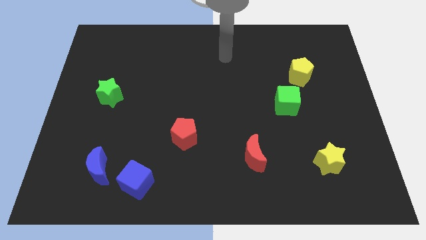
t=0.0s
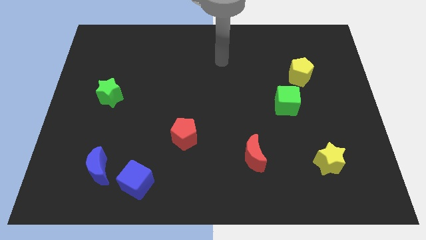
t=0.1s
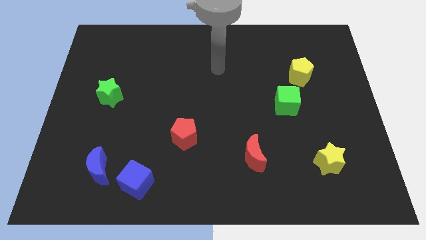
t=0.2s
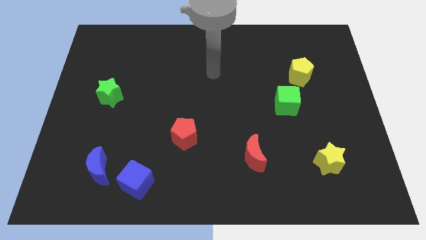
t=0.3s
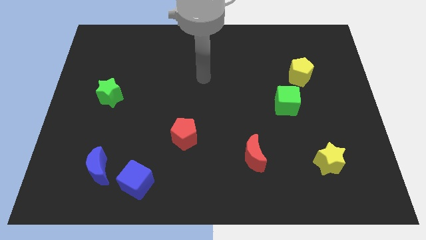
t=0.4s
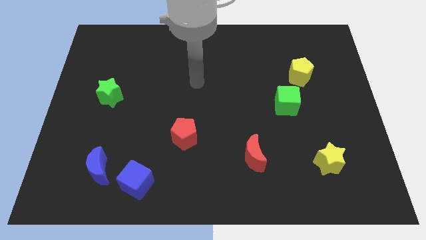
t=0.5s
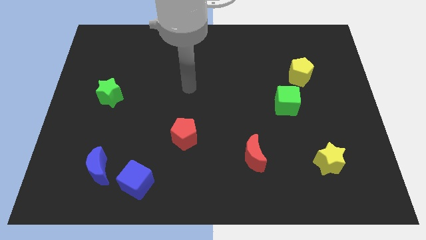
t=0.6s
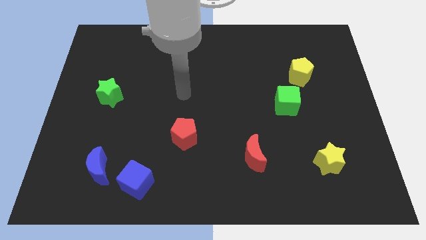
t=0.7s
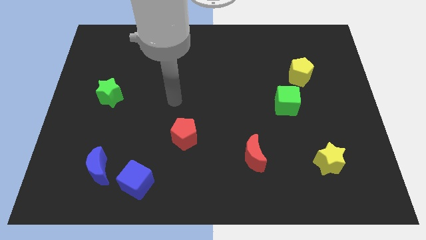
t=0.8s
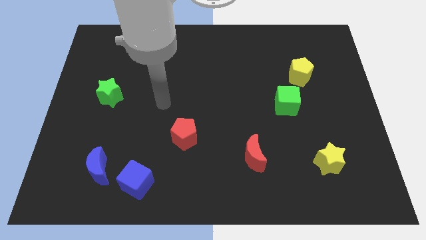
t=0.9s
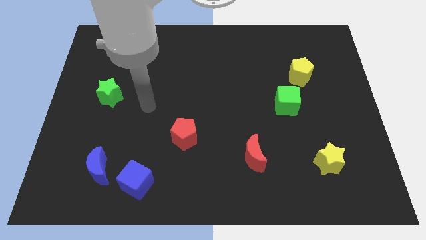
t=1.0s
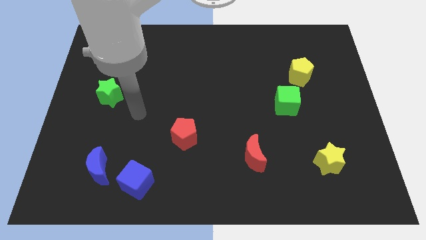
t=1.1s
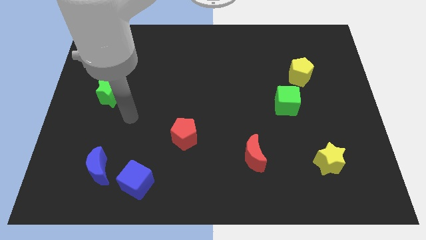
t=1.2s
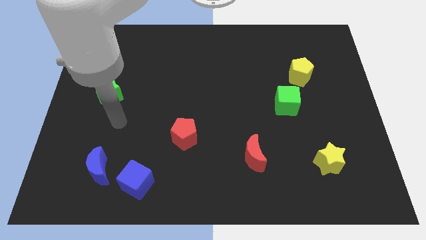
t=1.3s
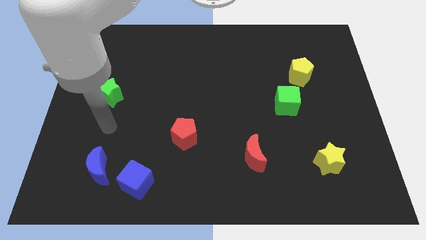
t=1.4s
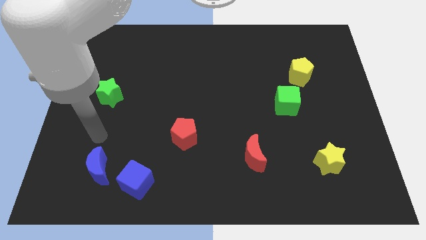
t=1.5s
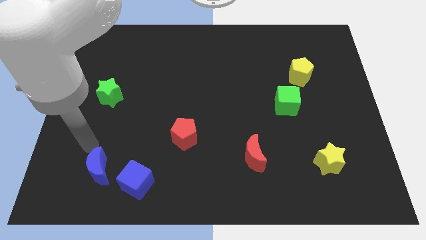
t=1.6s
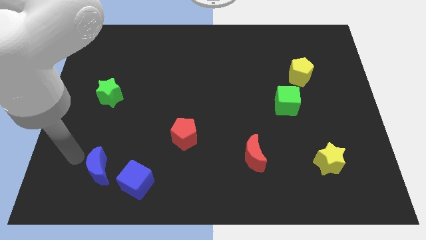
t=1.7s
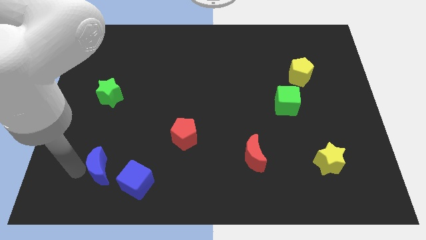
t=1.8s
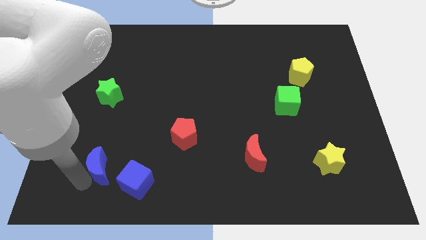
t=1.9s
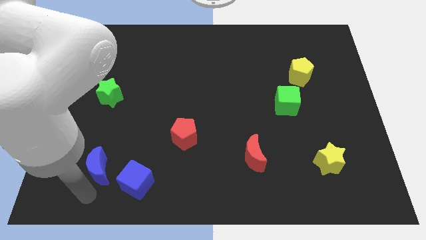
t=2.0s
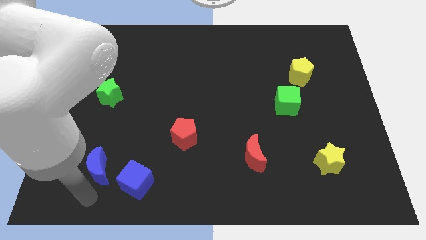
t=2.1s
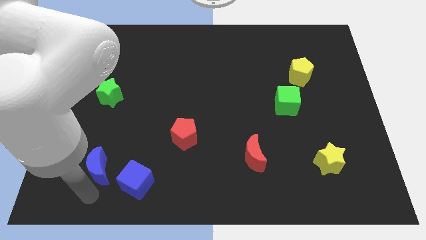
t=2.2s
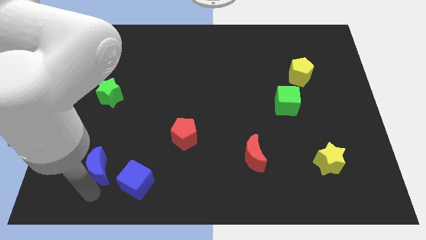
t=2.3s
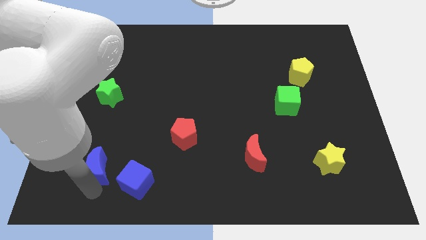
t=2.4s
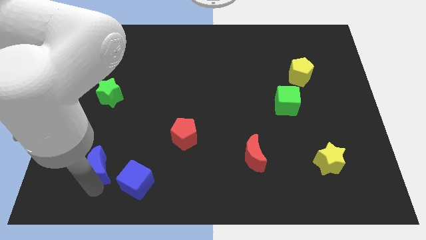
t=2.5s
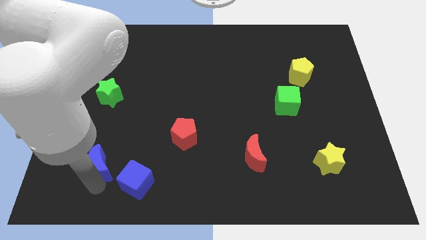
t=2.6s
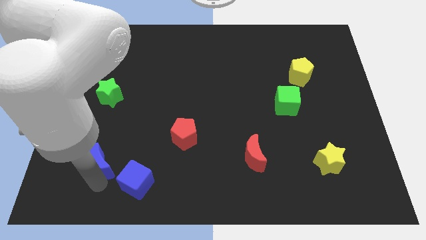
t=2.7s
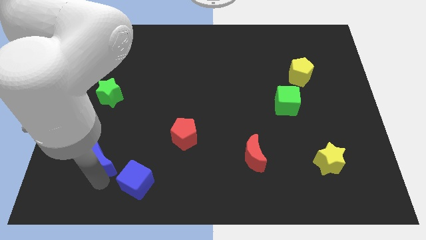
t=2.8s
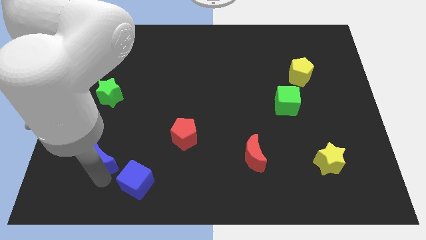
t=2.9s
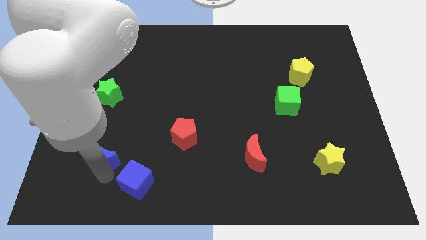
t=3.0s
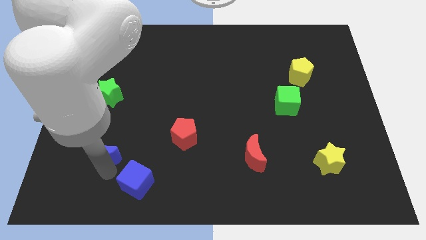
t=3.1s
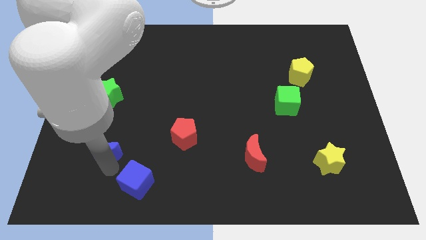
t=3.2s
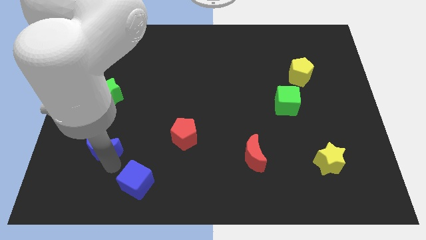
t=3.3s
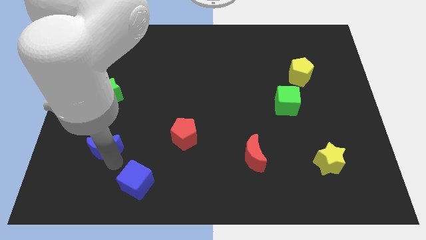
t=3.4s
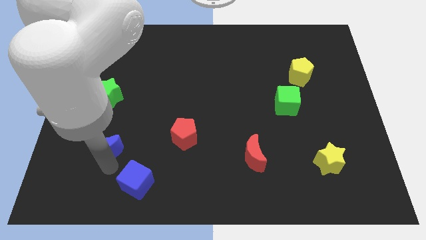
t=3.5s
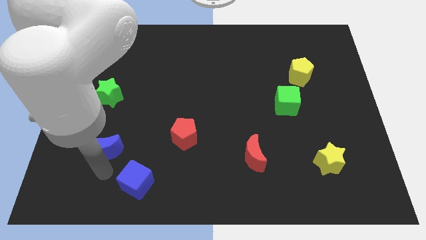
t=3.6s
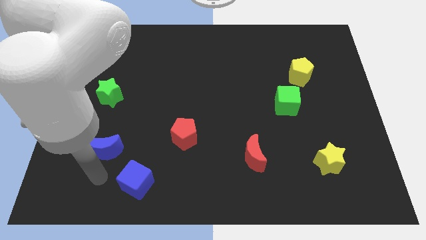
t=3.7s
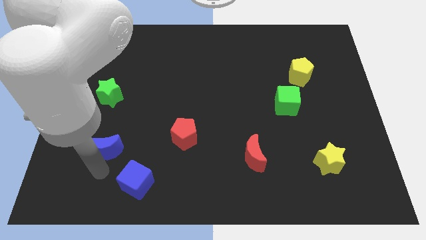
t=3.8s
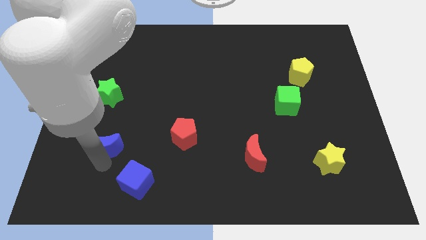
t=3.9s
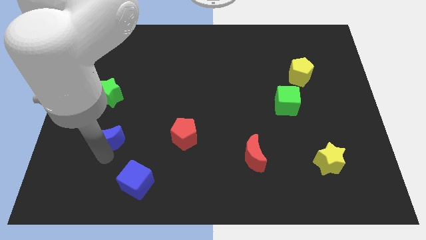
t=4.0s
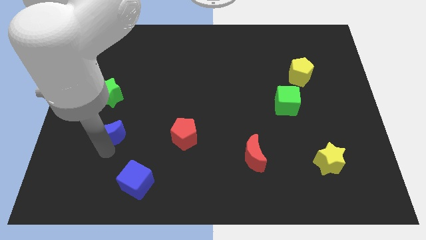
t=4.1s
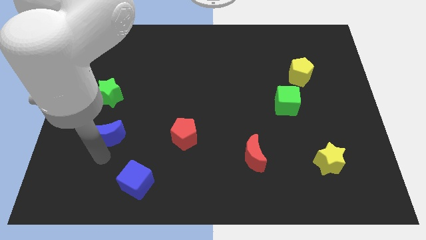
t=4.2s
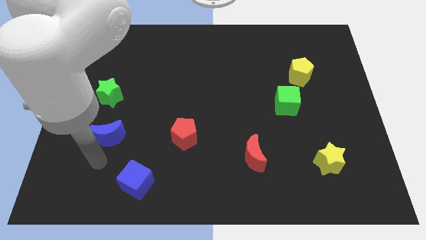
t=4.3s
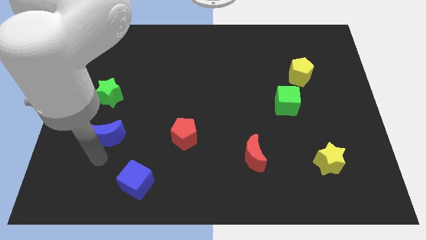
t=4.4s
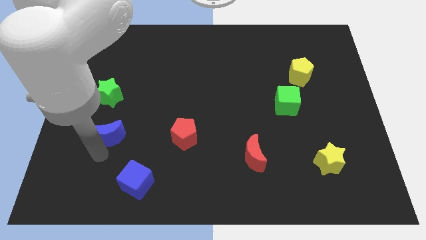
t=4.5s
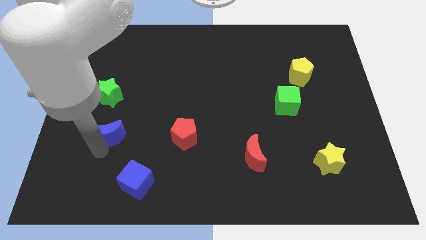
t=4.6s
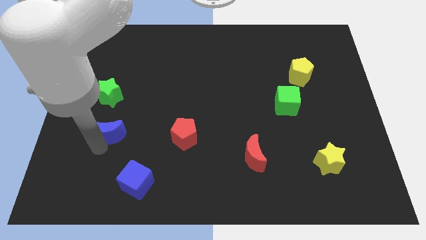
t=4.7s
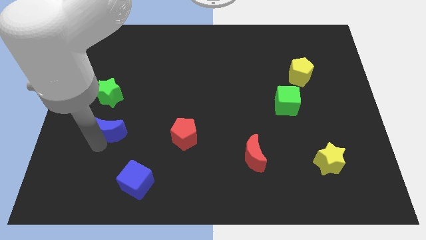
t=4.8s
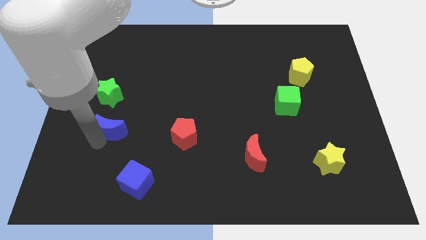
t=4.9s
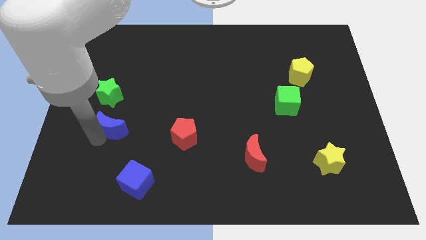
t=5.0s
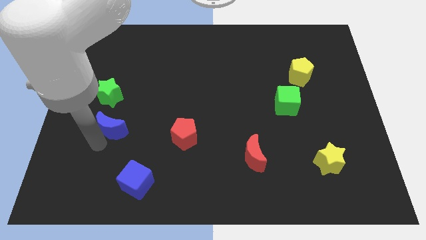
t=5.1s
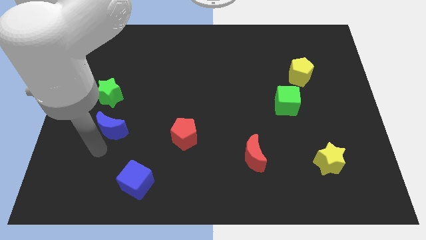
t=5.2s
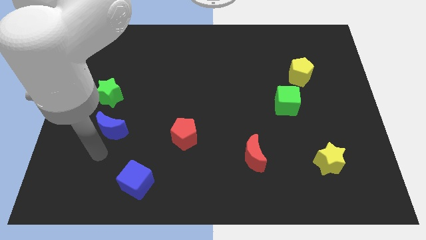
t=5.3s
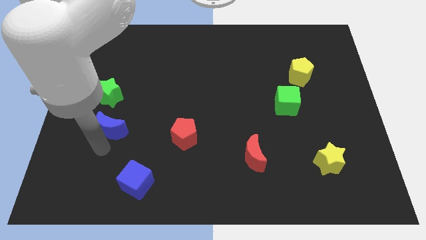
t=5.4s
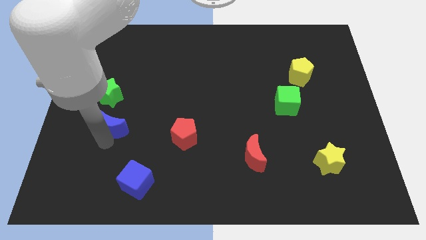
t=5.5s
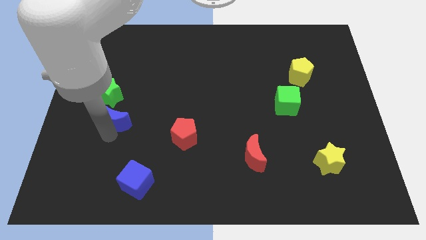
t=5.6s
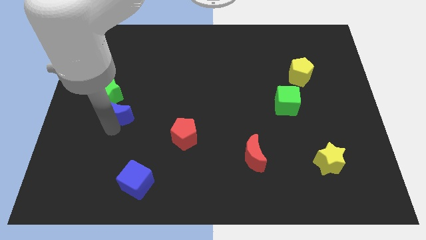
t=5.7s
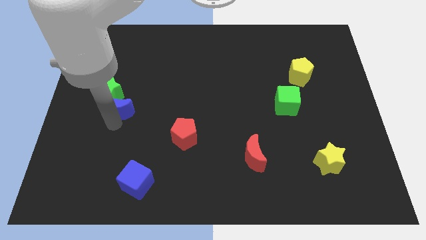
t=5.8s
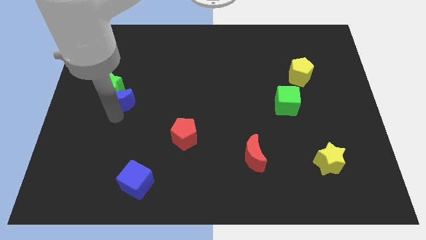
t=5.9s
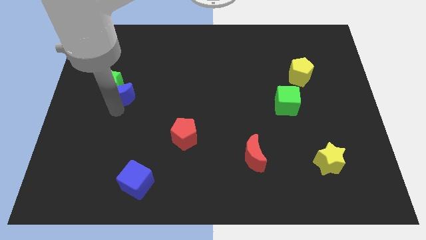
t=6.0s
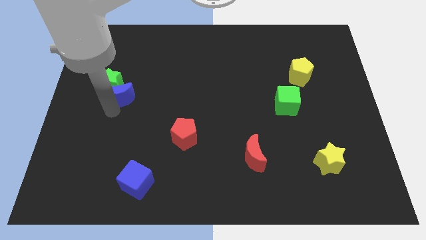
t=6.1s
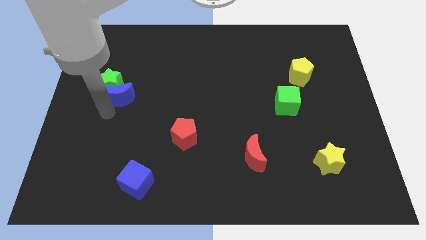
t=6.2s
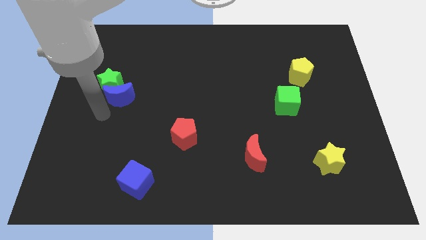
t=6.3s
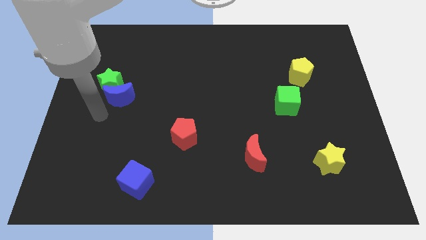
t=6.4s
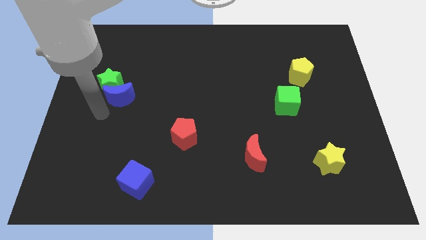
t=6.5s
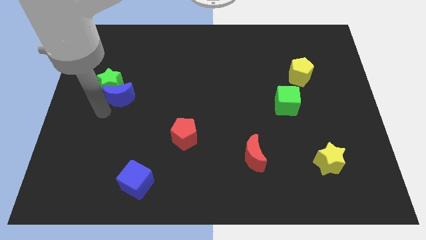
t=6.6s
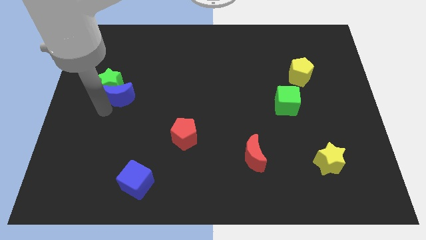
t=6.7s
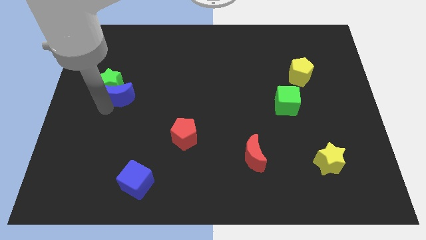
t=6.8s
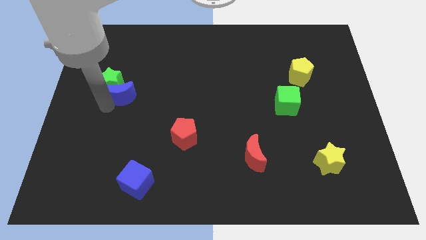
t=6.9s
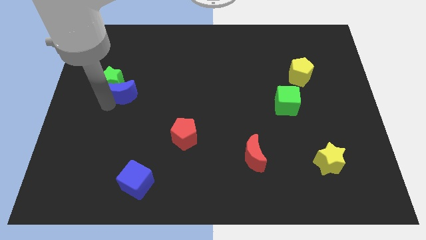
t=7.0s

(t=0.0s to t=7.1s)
move the blue moon upwards

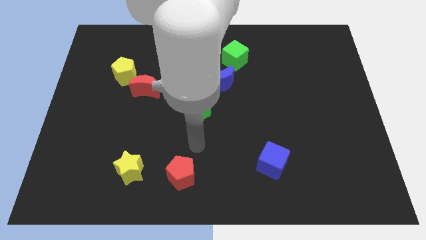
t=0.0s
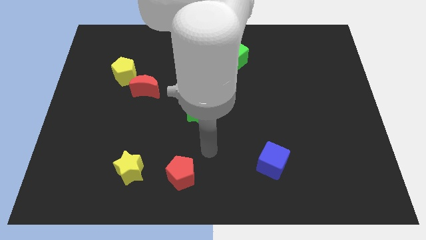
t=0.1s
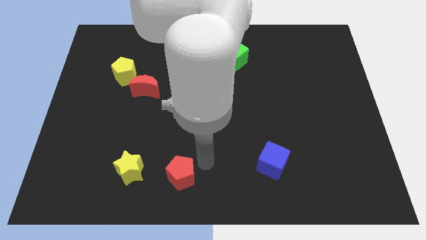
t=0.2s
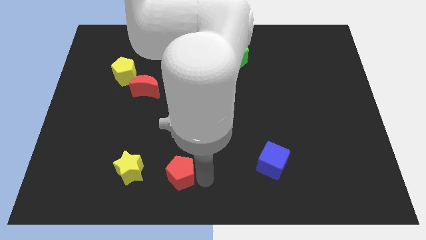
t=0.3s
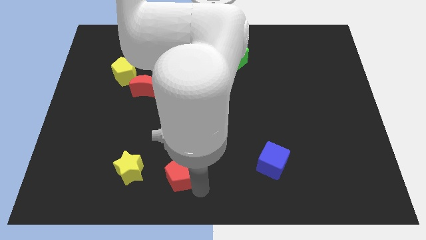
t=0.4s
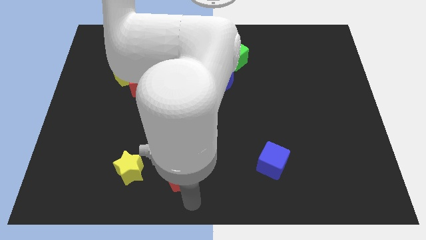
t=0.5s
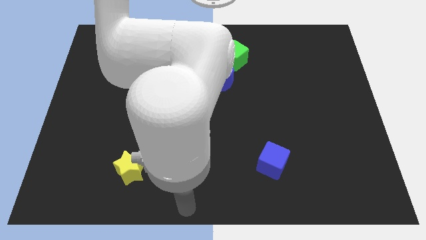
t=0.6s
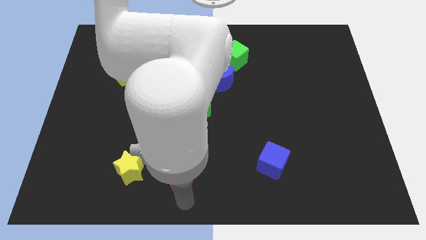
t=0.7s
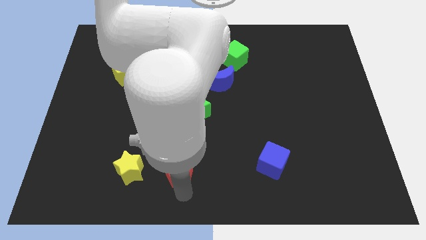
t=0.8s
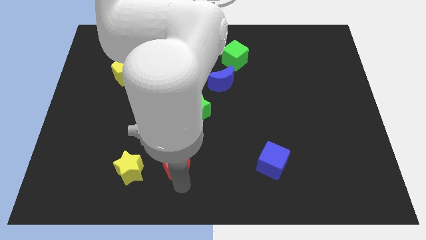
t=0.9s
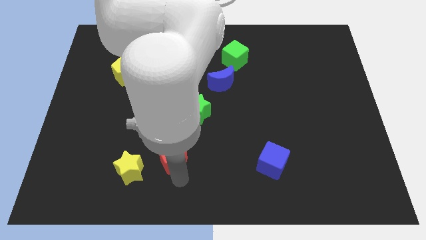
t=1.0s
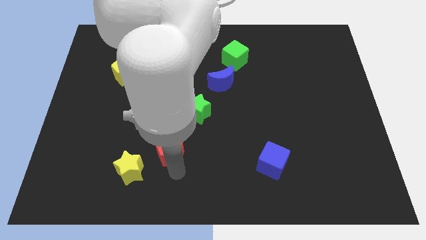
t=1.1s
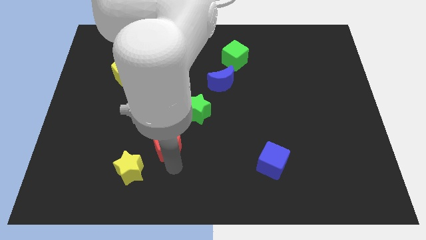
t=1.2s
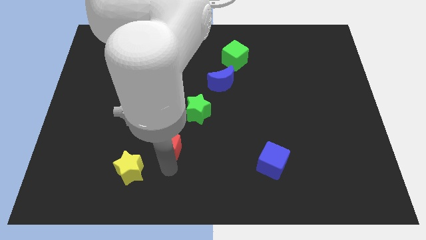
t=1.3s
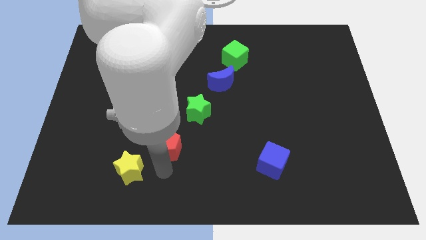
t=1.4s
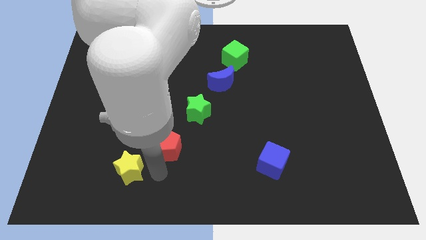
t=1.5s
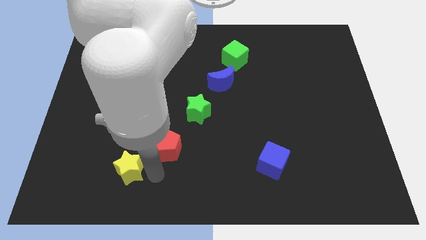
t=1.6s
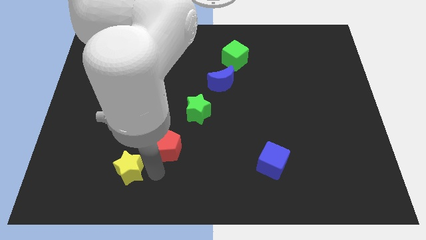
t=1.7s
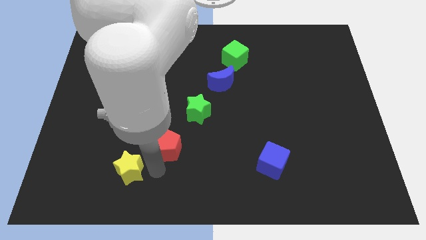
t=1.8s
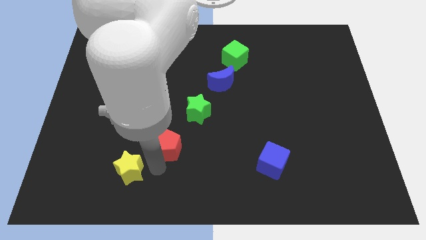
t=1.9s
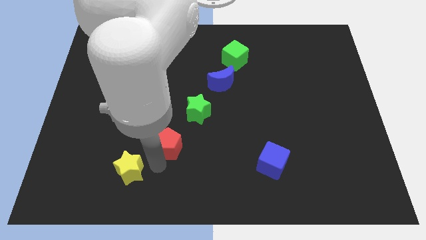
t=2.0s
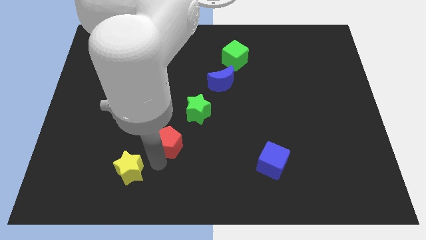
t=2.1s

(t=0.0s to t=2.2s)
slightly push the red pentagon upwards
